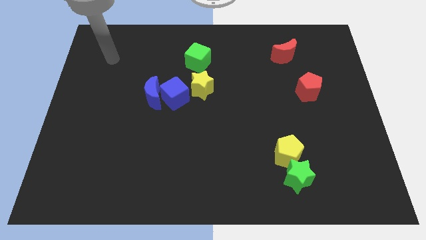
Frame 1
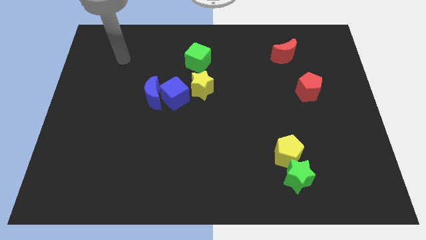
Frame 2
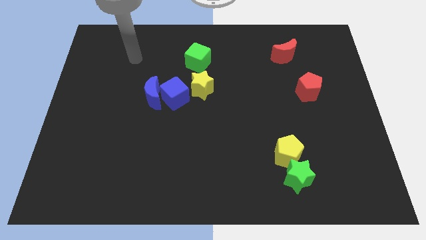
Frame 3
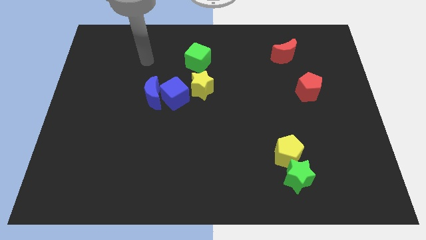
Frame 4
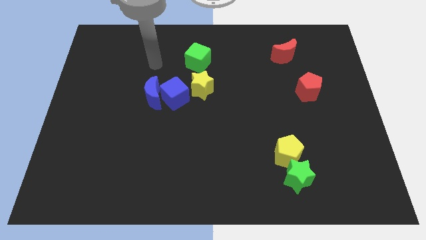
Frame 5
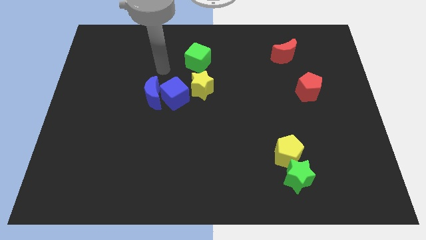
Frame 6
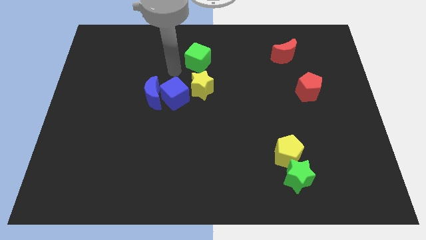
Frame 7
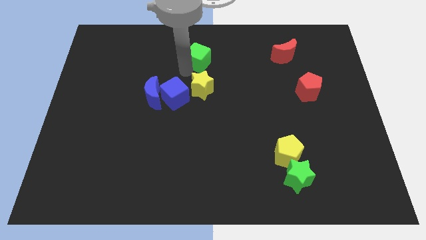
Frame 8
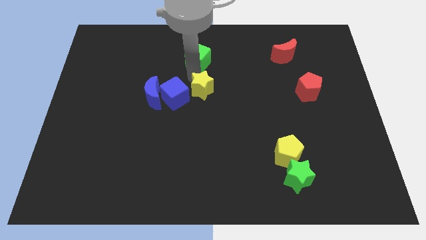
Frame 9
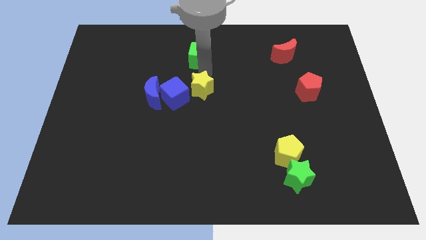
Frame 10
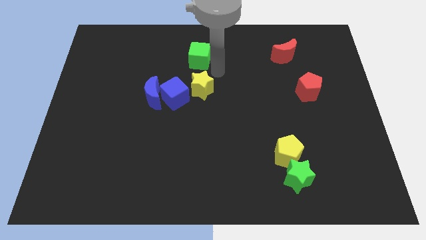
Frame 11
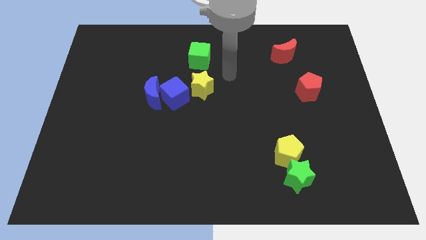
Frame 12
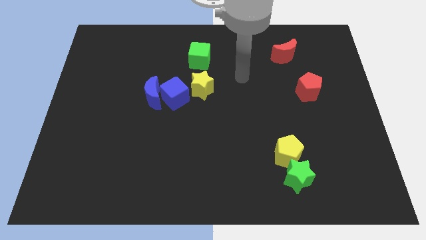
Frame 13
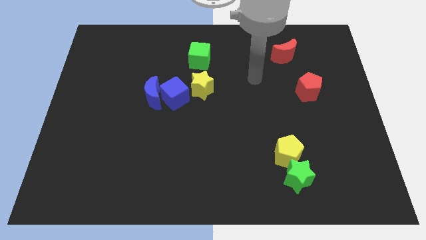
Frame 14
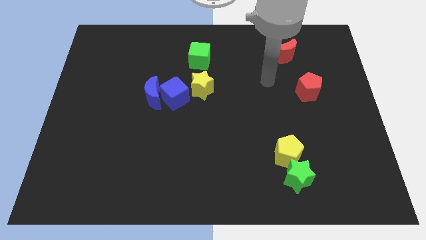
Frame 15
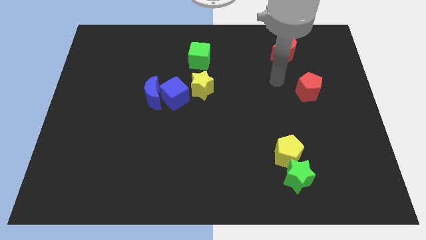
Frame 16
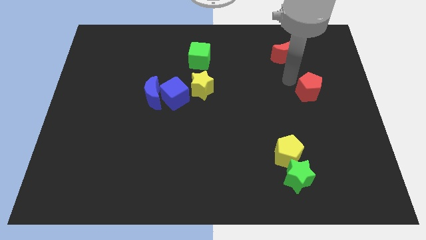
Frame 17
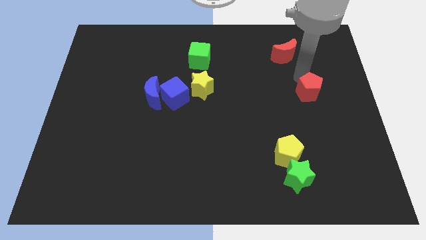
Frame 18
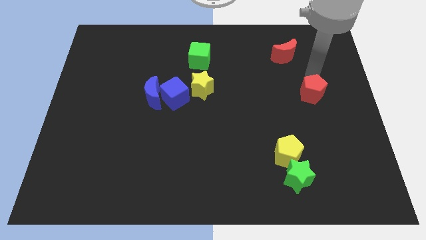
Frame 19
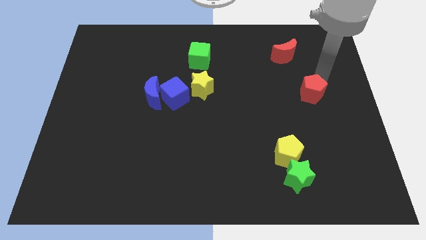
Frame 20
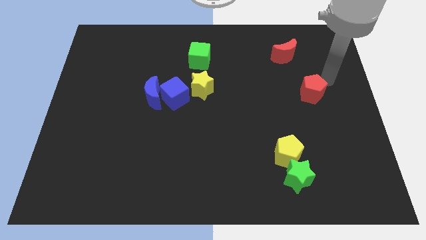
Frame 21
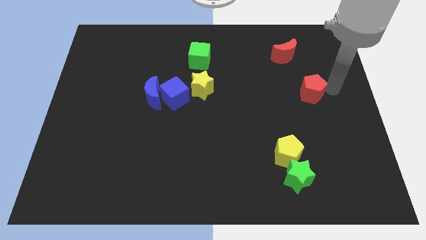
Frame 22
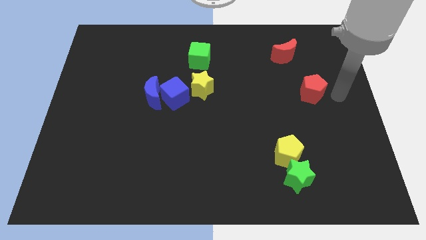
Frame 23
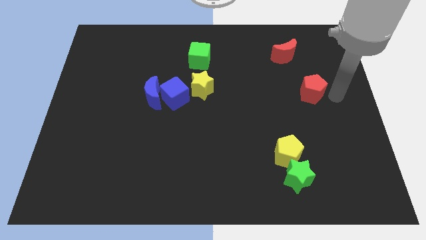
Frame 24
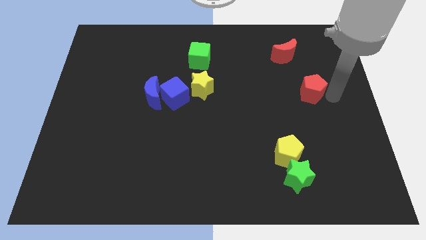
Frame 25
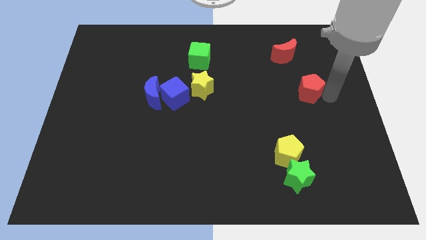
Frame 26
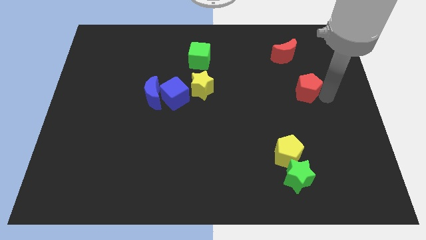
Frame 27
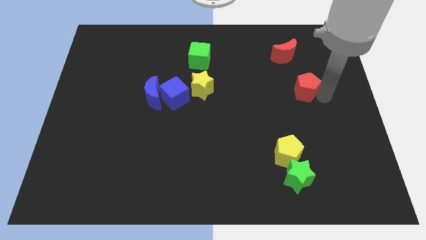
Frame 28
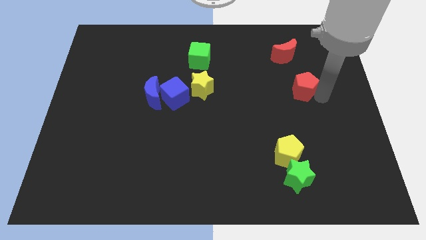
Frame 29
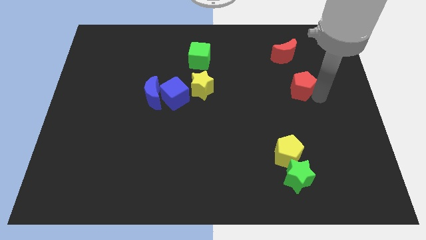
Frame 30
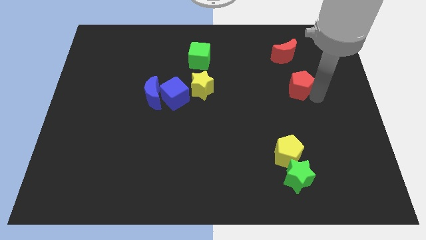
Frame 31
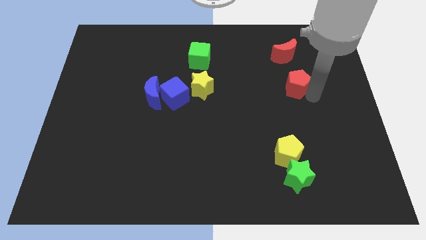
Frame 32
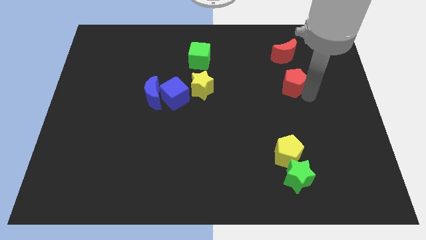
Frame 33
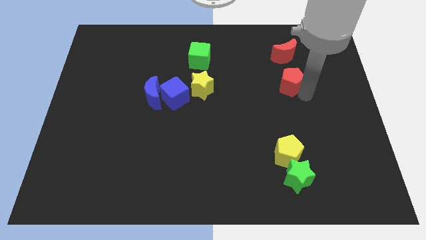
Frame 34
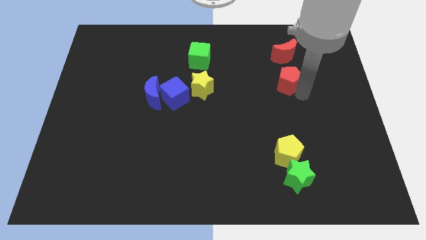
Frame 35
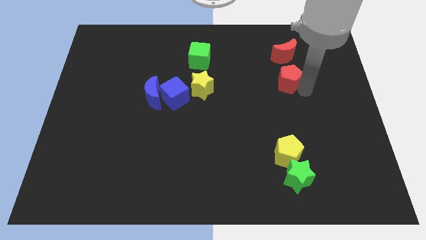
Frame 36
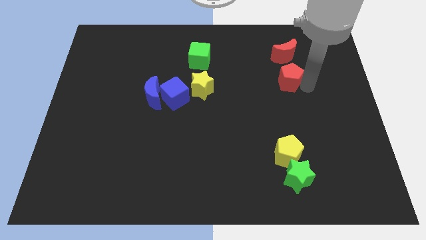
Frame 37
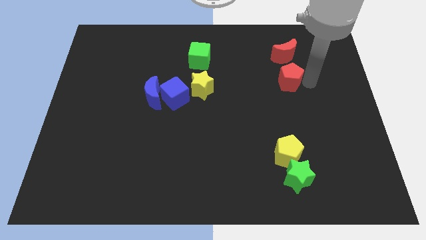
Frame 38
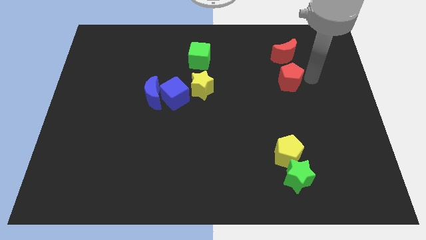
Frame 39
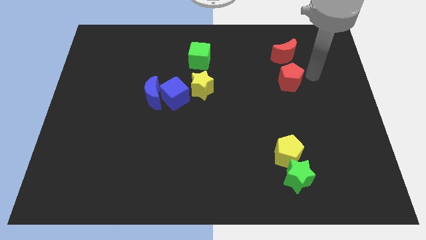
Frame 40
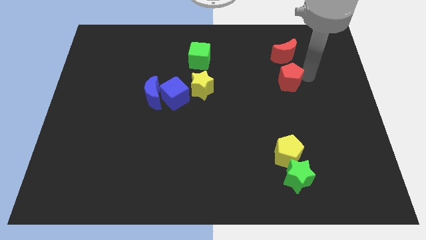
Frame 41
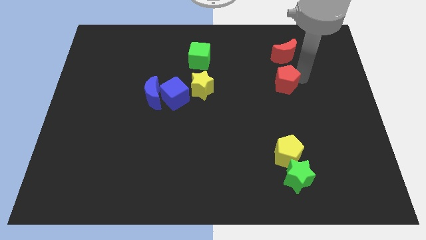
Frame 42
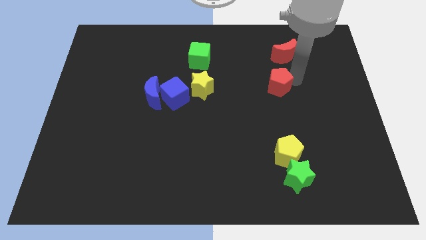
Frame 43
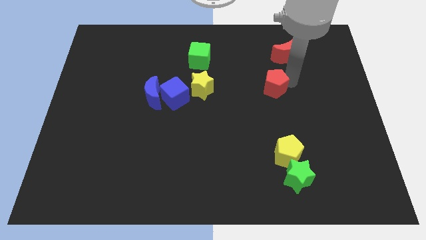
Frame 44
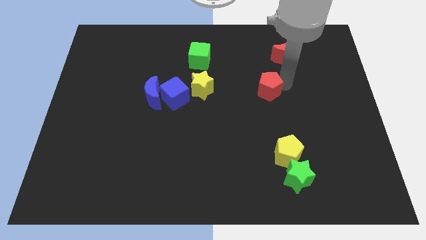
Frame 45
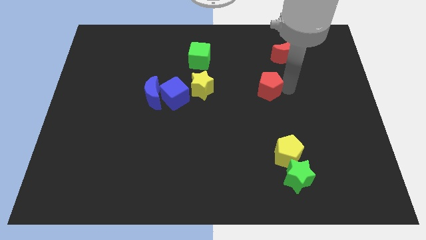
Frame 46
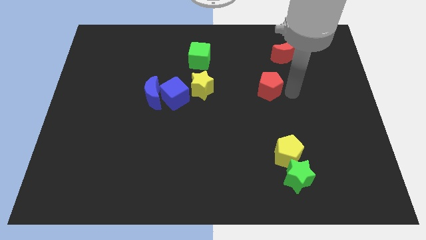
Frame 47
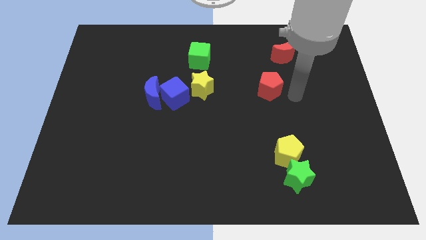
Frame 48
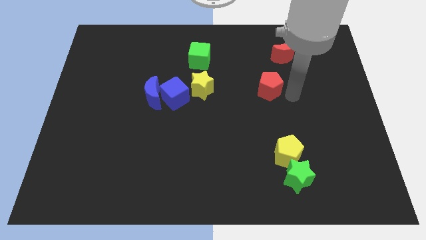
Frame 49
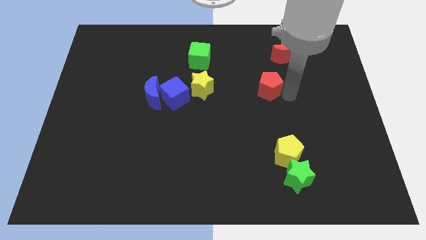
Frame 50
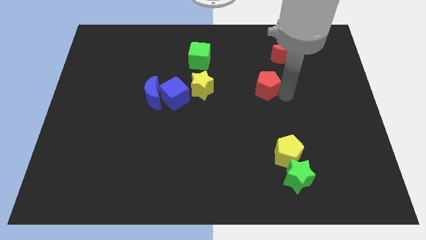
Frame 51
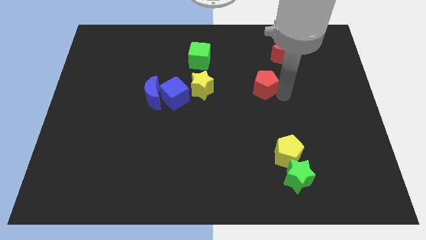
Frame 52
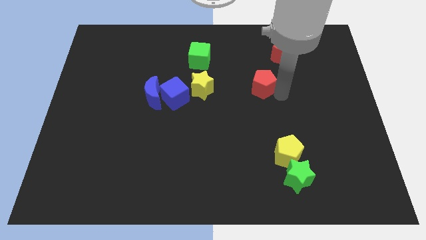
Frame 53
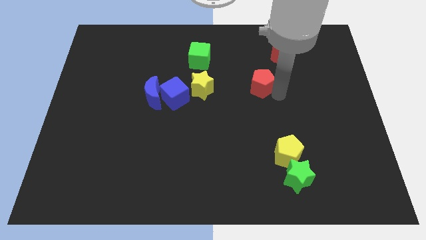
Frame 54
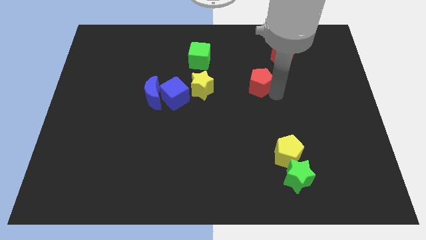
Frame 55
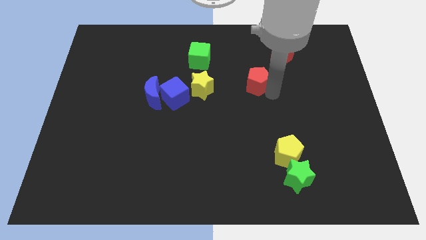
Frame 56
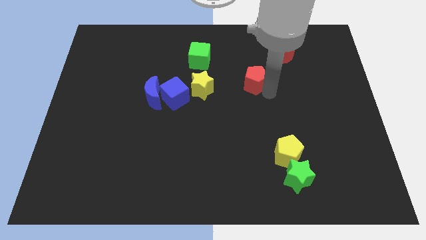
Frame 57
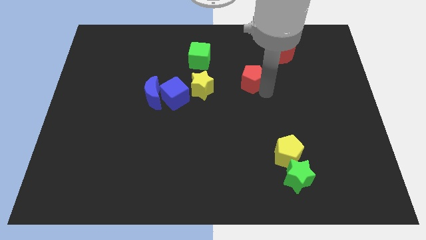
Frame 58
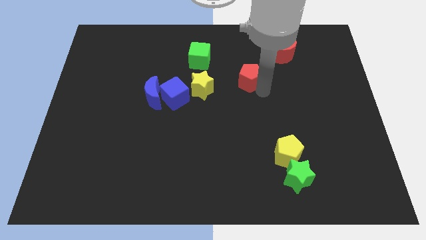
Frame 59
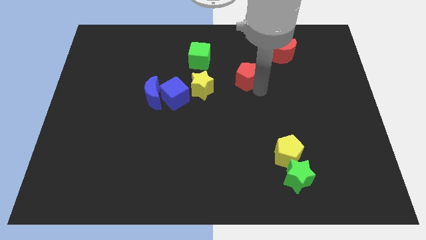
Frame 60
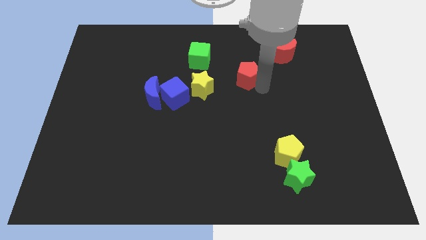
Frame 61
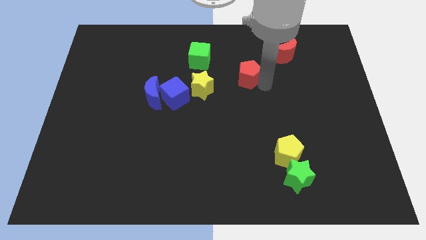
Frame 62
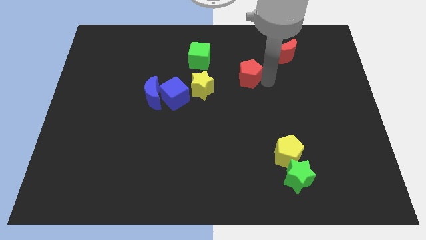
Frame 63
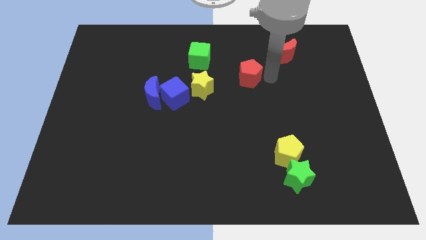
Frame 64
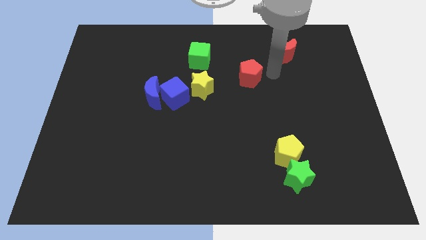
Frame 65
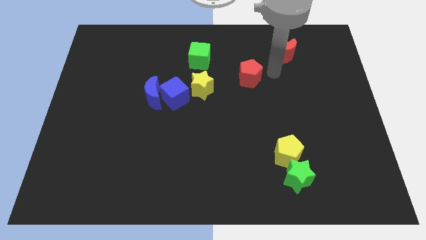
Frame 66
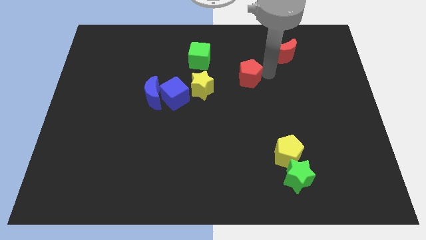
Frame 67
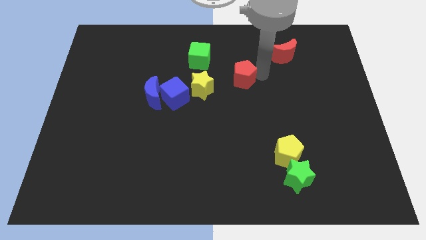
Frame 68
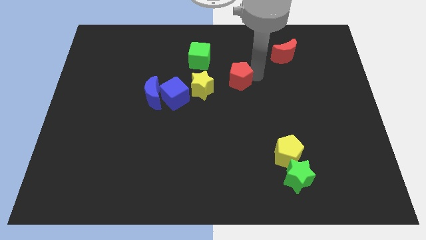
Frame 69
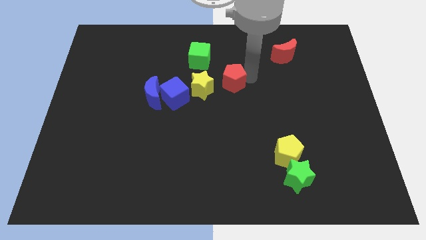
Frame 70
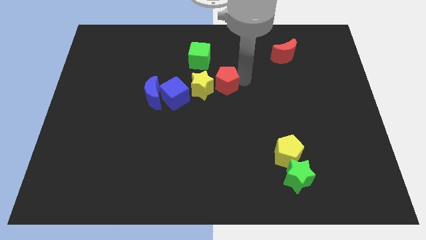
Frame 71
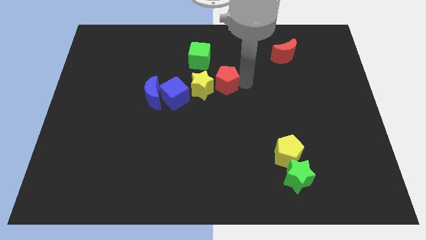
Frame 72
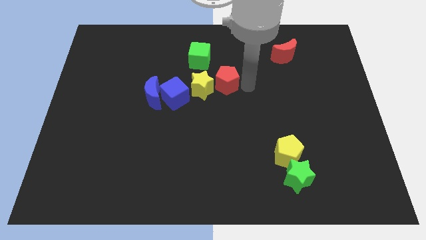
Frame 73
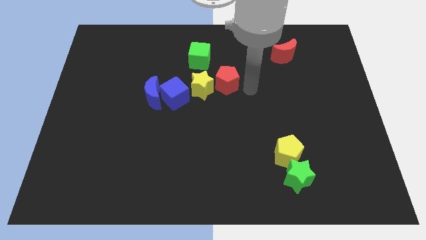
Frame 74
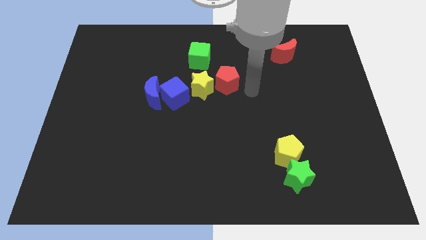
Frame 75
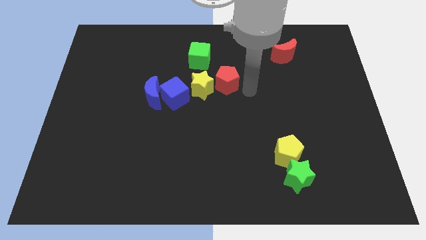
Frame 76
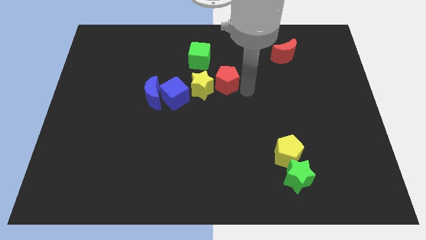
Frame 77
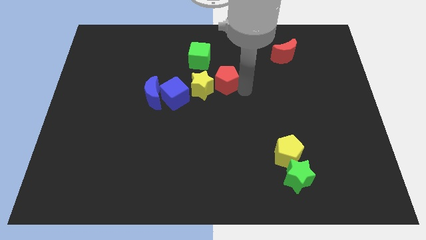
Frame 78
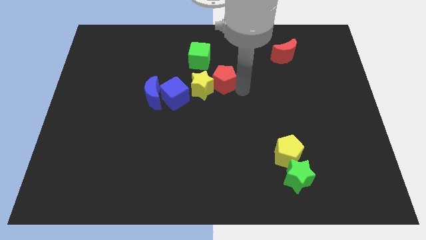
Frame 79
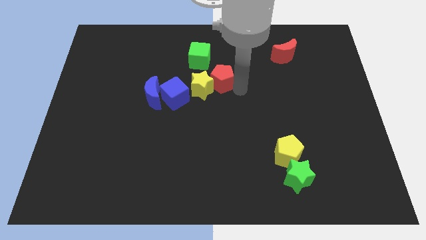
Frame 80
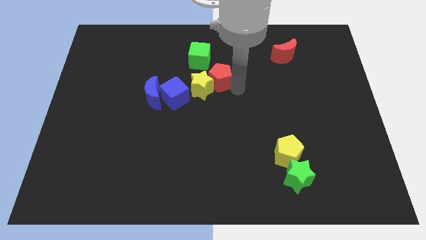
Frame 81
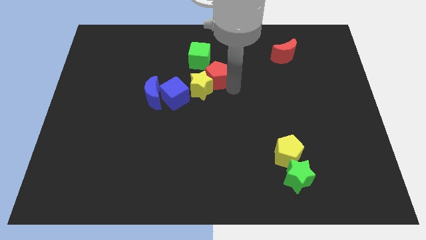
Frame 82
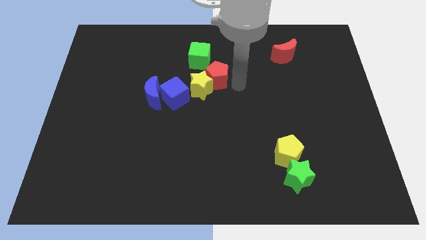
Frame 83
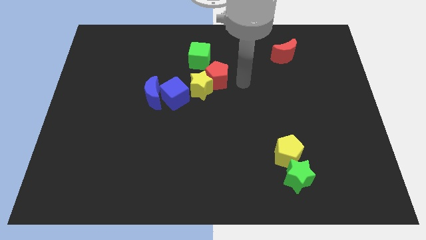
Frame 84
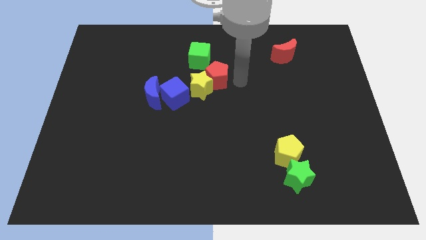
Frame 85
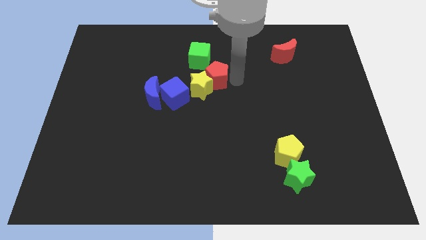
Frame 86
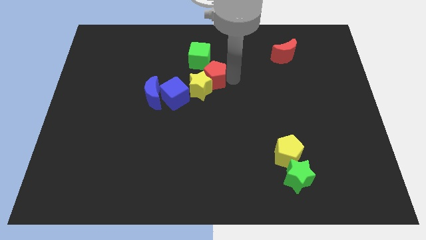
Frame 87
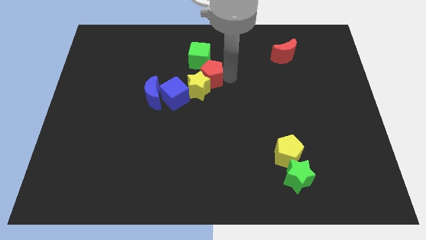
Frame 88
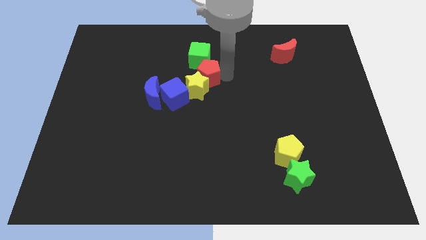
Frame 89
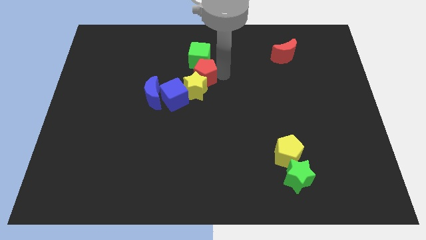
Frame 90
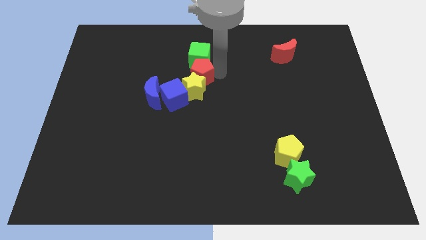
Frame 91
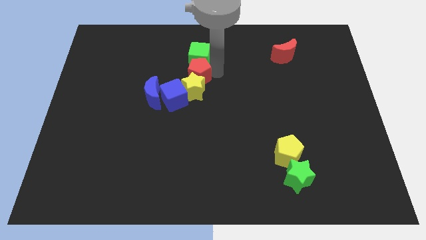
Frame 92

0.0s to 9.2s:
slide the red pentagon diagonally up and to the left of the yellow star
